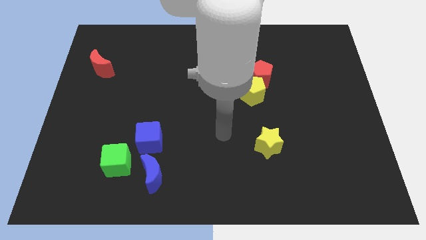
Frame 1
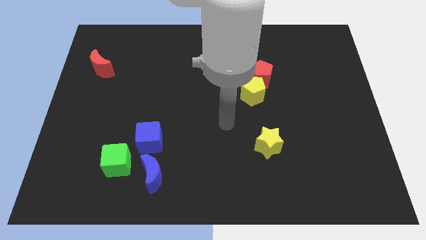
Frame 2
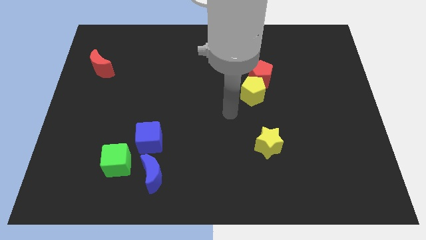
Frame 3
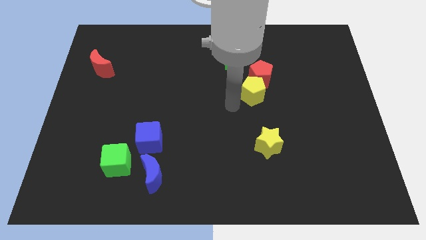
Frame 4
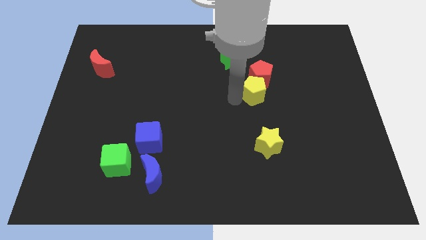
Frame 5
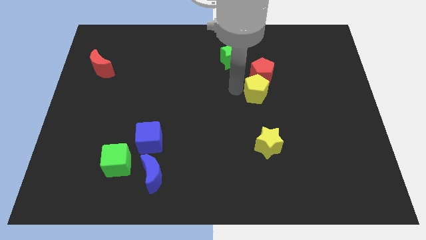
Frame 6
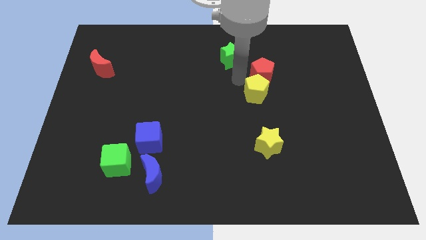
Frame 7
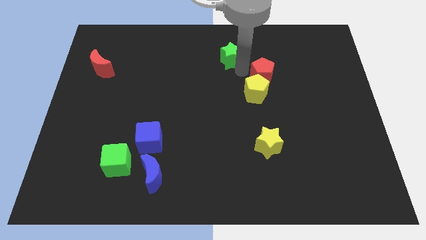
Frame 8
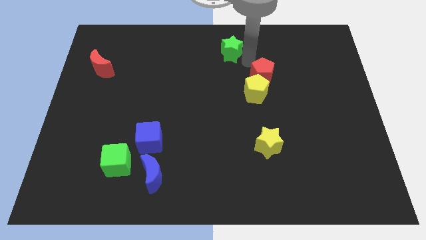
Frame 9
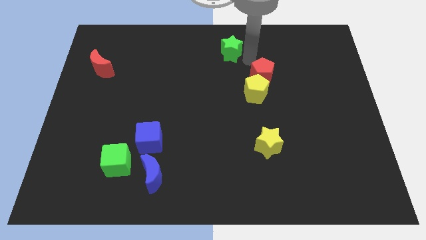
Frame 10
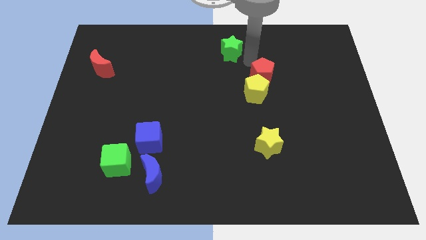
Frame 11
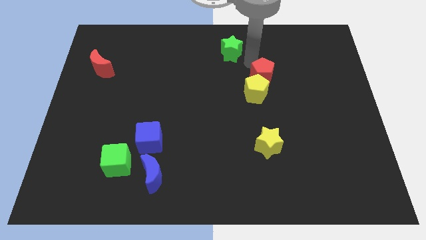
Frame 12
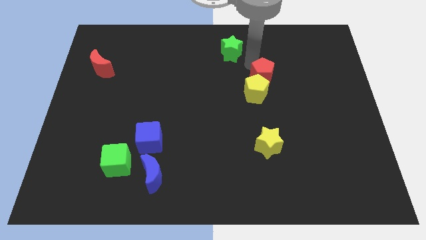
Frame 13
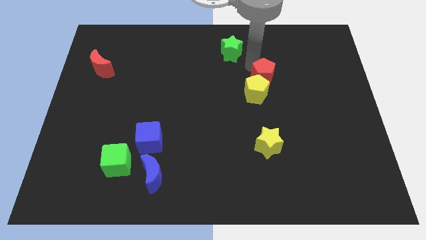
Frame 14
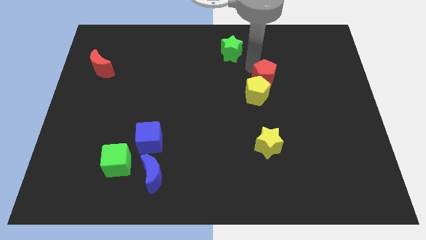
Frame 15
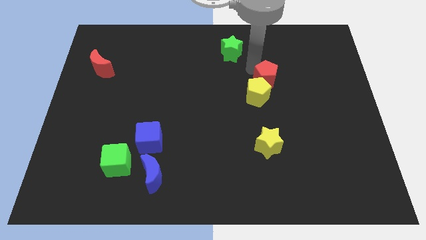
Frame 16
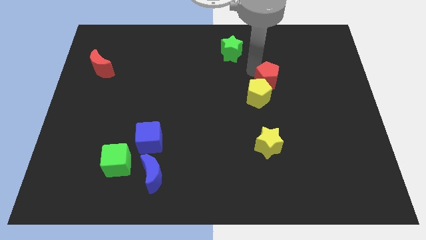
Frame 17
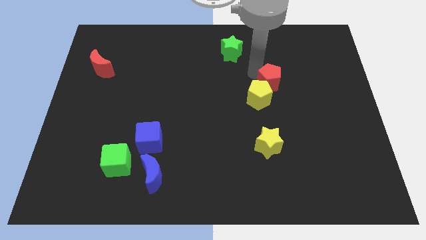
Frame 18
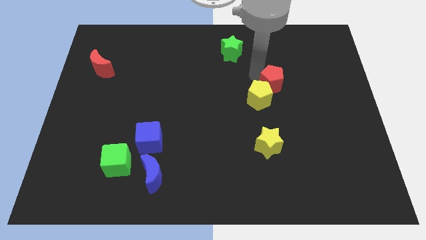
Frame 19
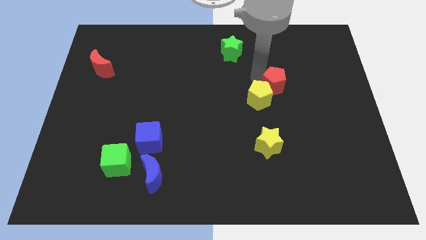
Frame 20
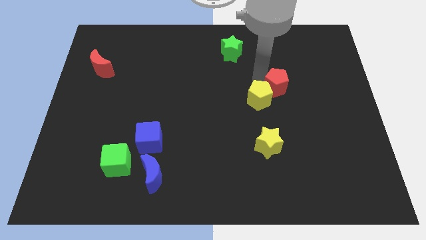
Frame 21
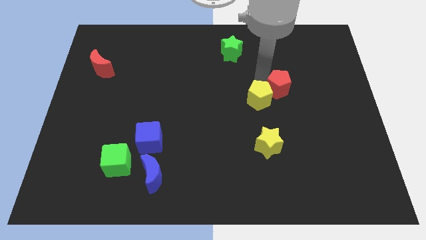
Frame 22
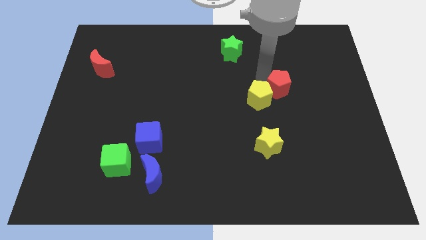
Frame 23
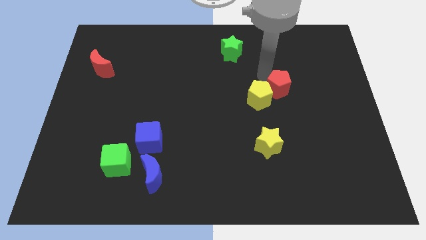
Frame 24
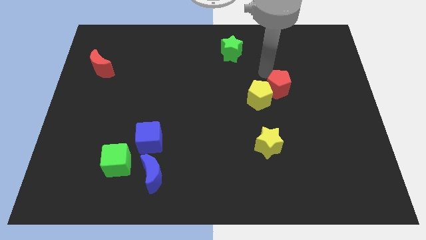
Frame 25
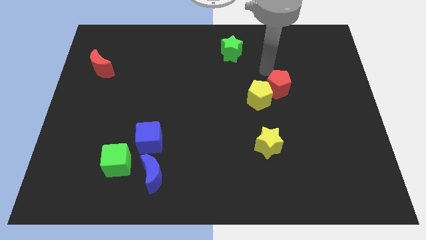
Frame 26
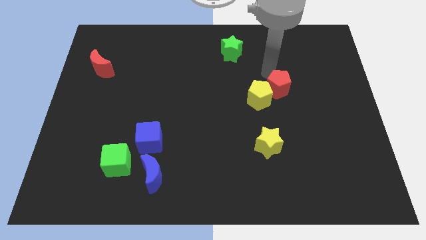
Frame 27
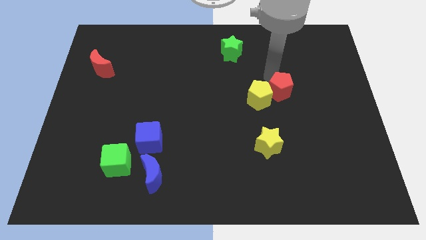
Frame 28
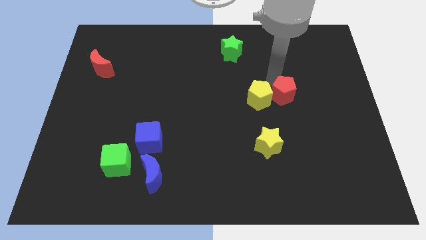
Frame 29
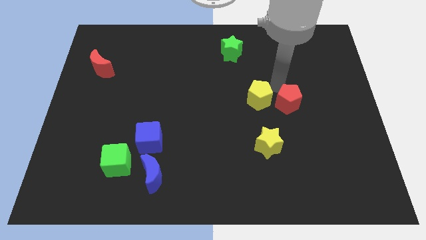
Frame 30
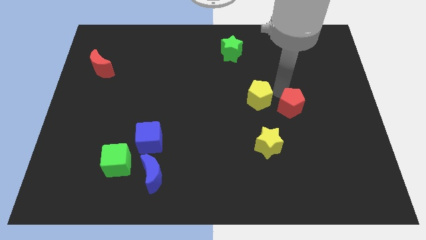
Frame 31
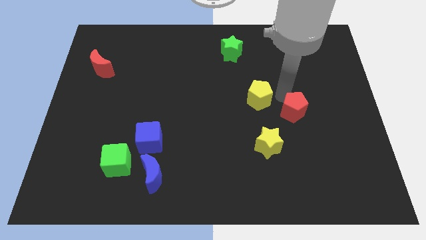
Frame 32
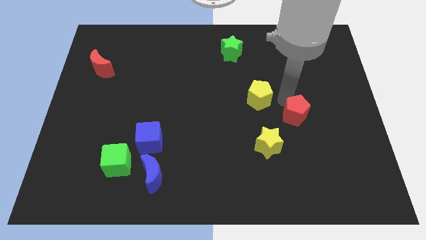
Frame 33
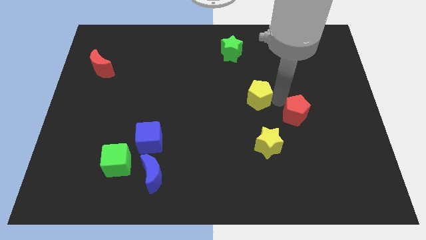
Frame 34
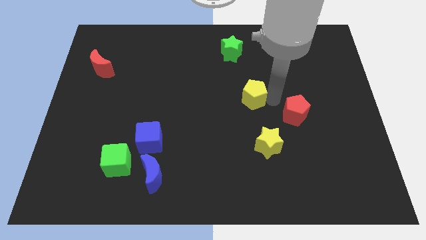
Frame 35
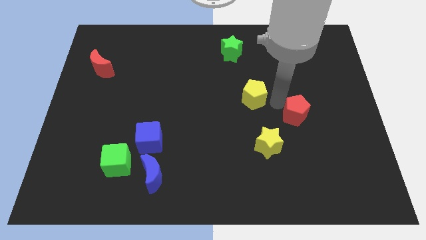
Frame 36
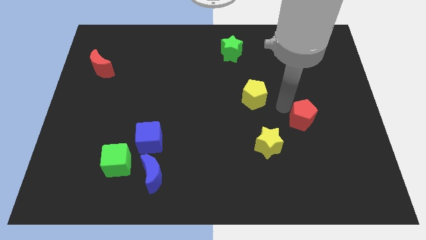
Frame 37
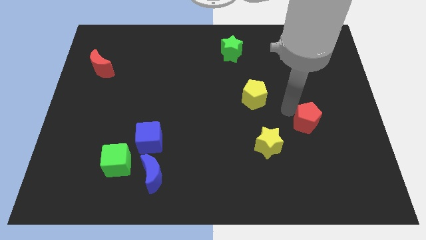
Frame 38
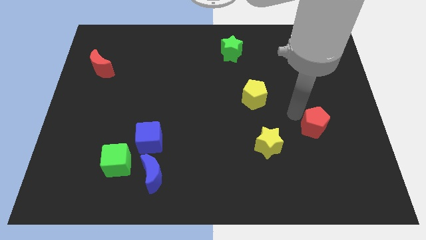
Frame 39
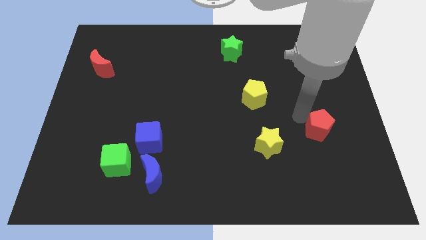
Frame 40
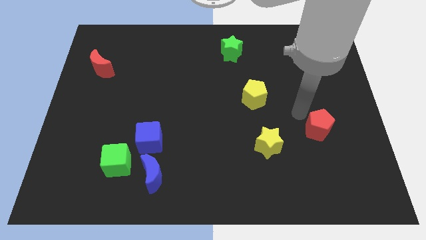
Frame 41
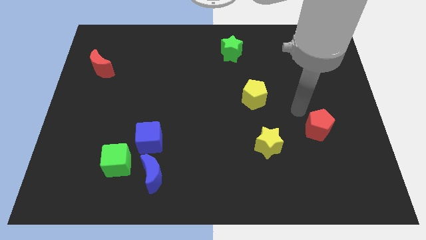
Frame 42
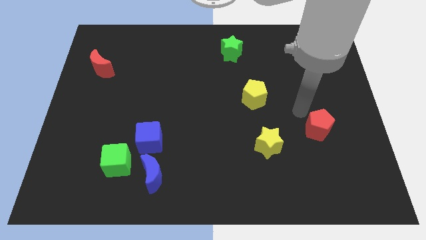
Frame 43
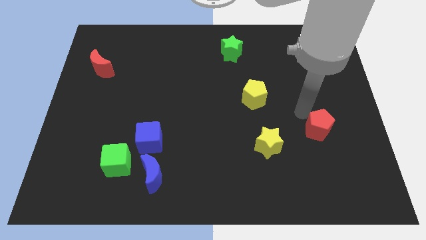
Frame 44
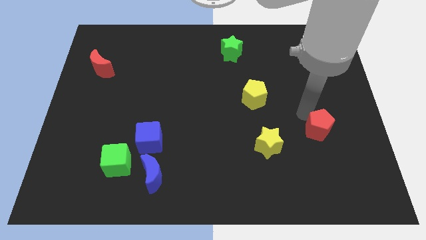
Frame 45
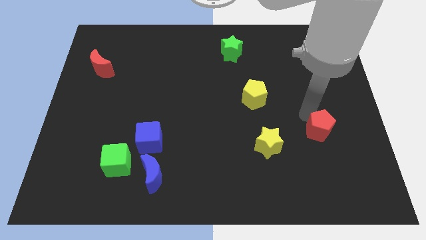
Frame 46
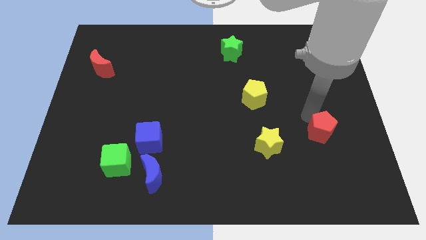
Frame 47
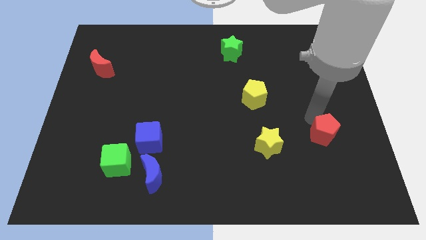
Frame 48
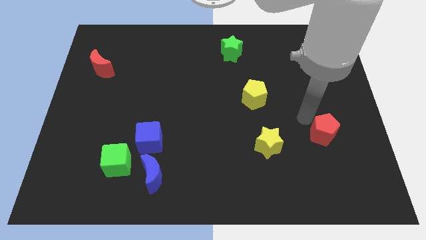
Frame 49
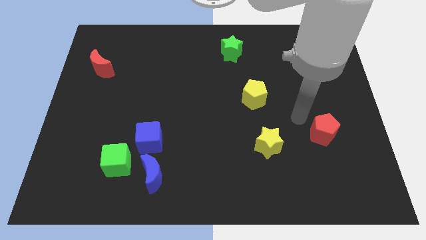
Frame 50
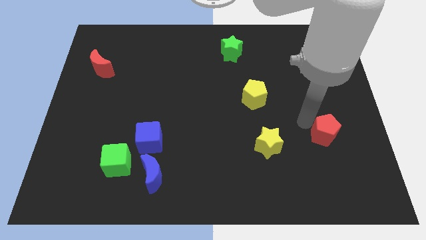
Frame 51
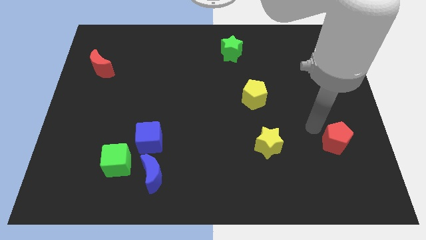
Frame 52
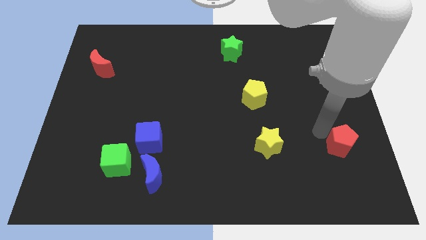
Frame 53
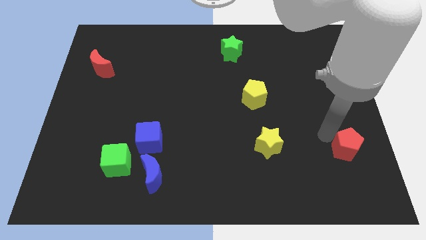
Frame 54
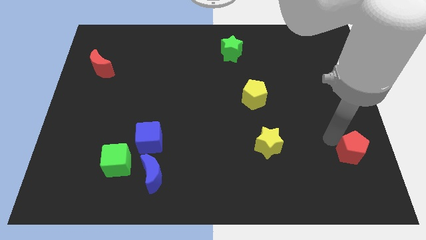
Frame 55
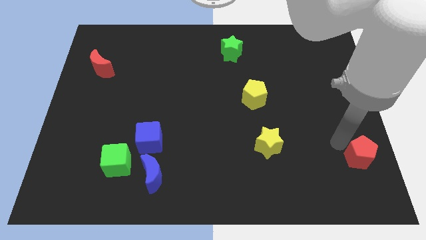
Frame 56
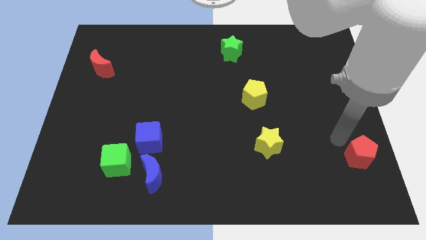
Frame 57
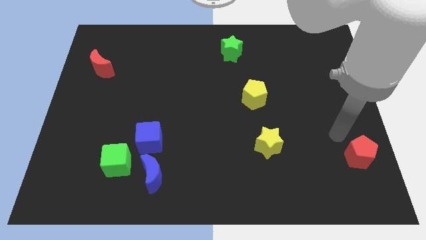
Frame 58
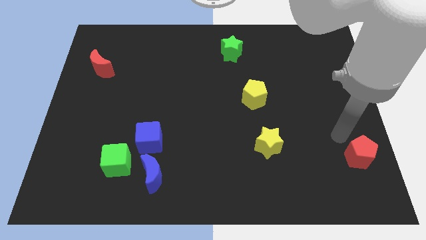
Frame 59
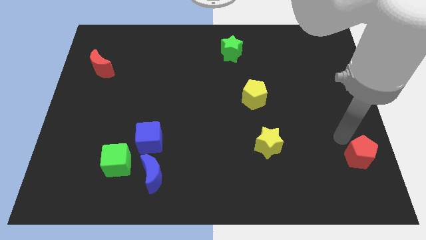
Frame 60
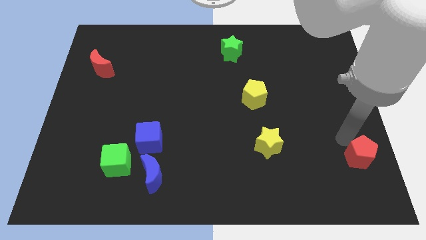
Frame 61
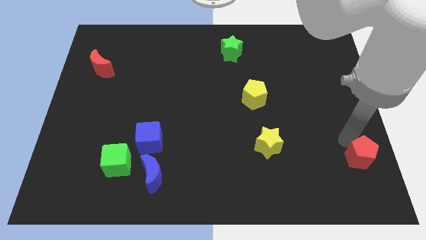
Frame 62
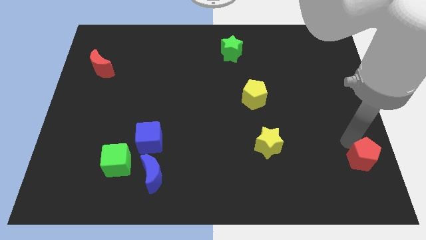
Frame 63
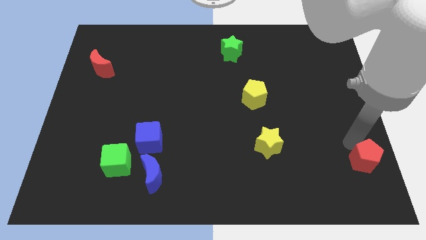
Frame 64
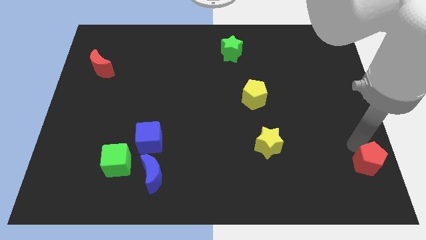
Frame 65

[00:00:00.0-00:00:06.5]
push the red pentagon to the bottom right
